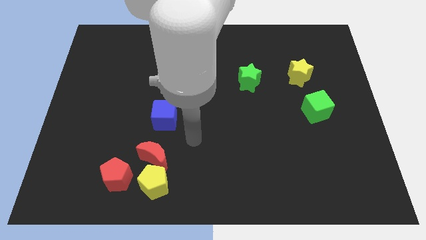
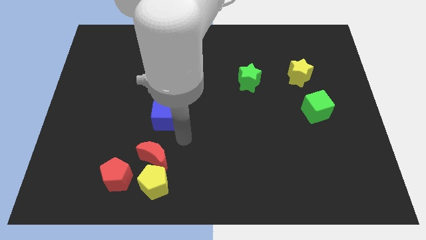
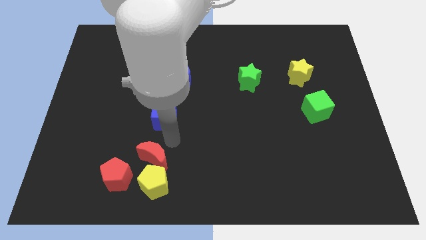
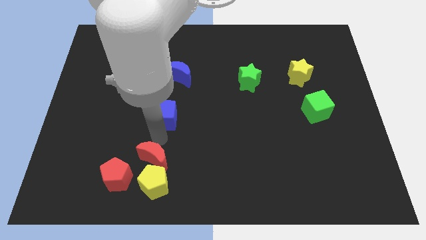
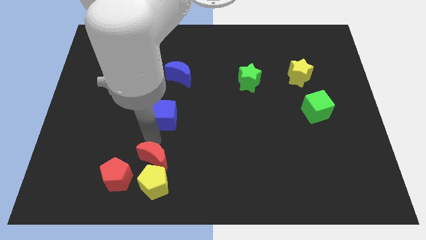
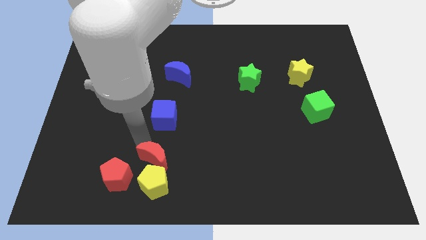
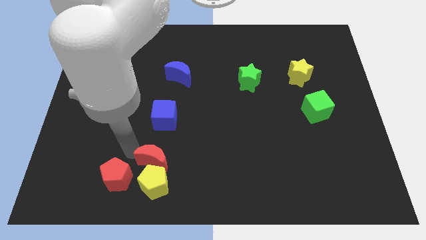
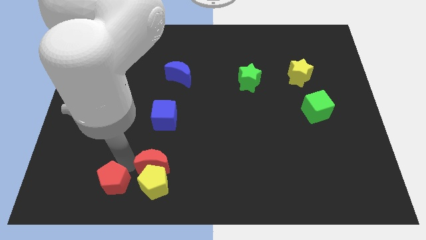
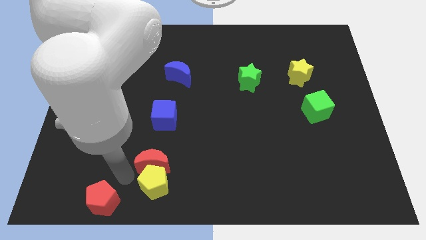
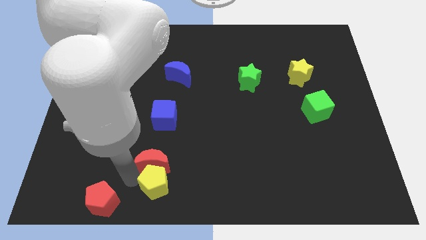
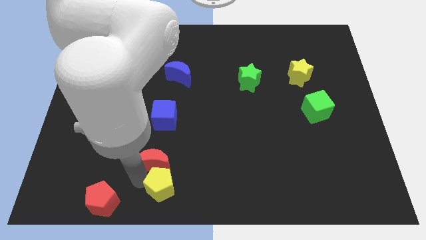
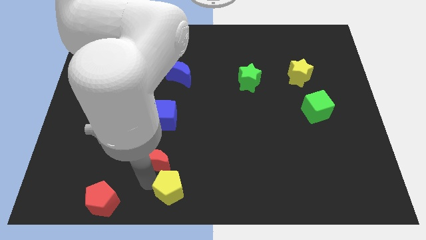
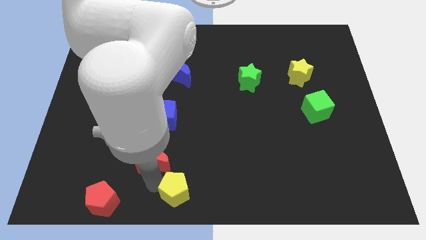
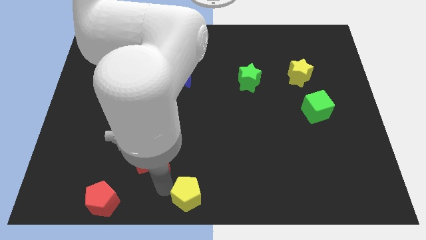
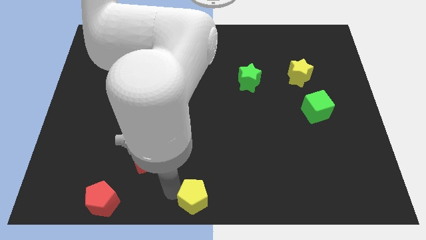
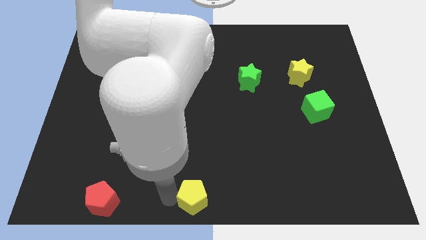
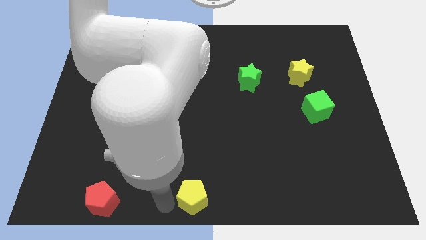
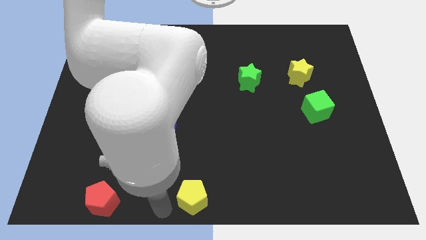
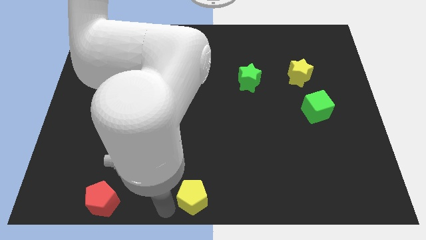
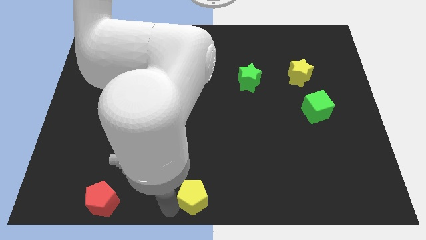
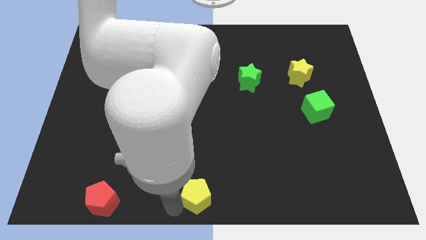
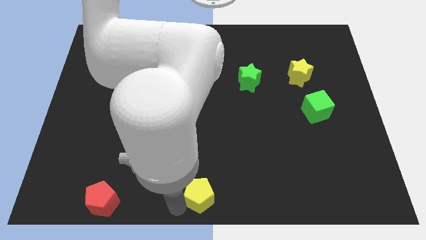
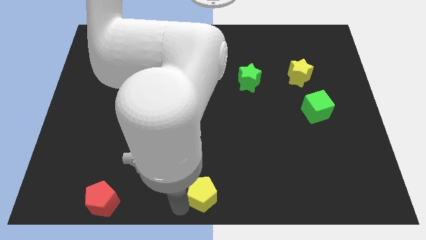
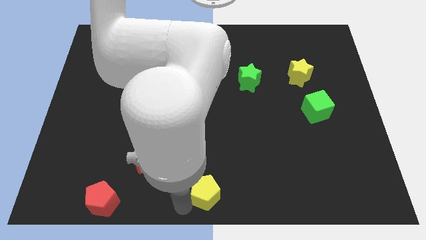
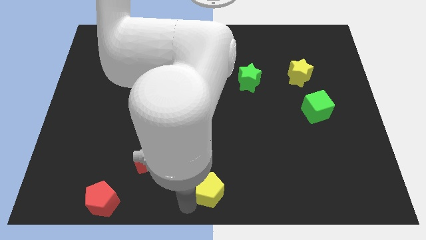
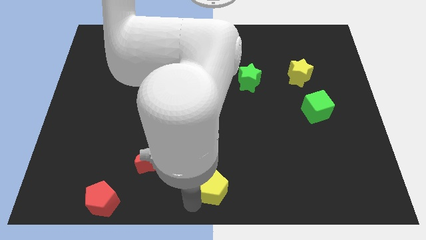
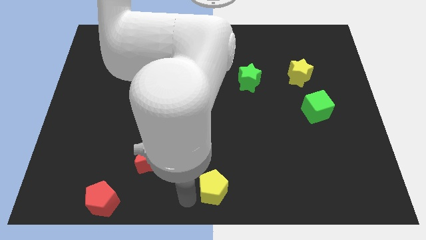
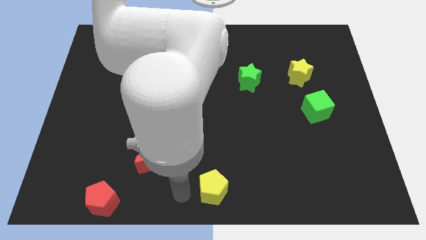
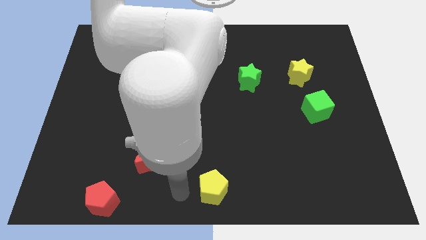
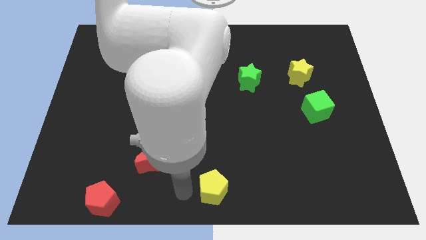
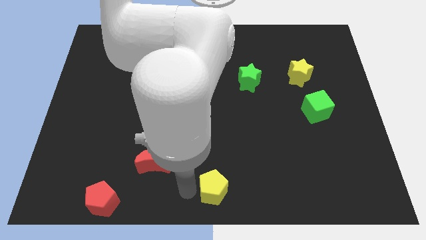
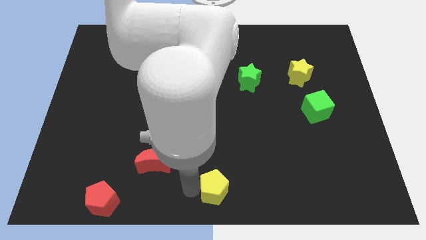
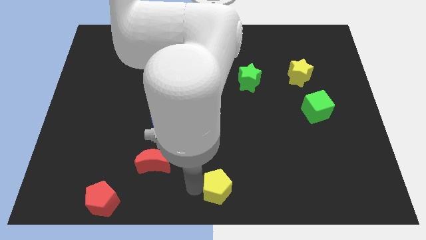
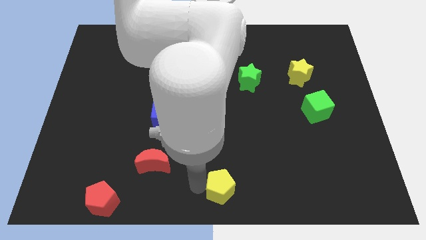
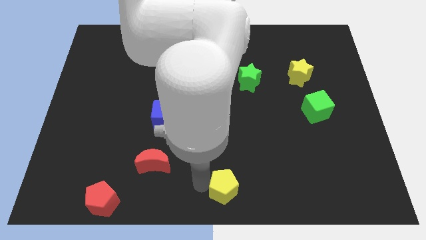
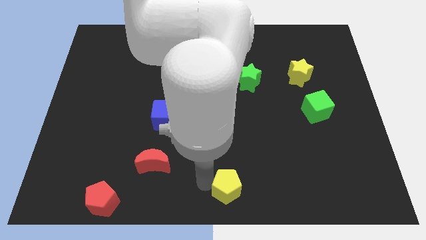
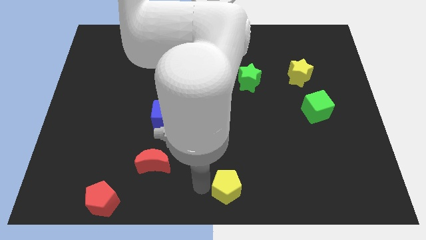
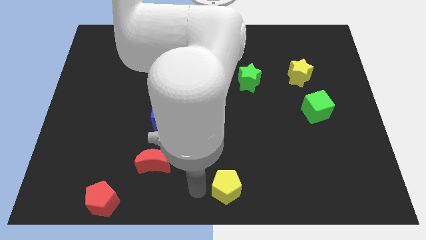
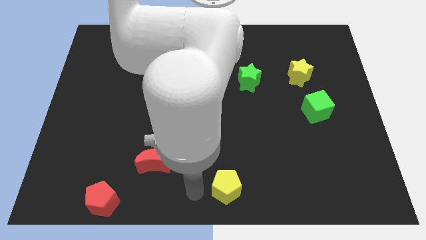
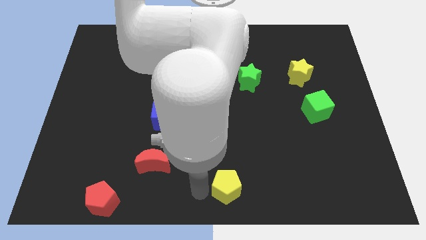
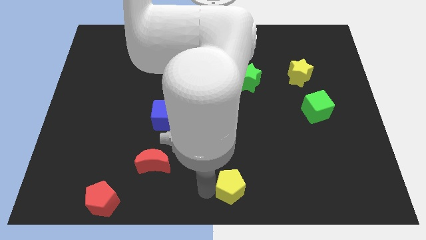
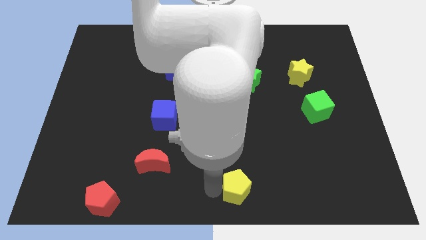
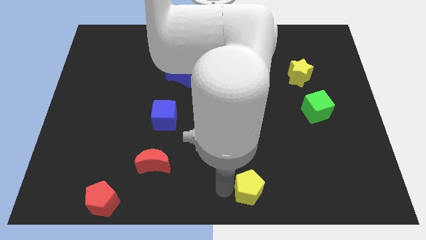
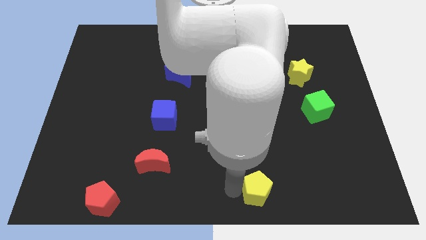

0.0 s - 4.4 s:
move the yellow pentagon to the right

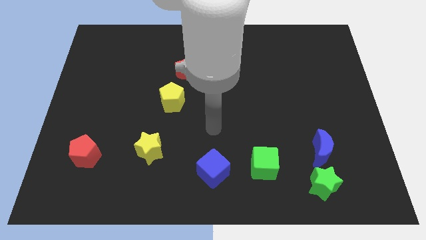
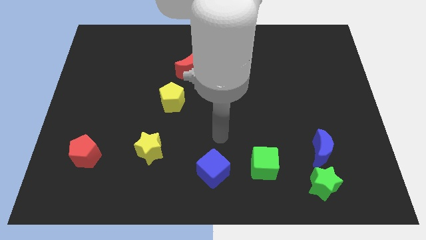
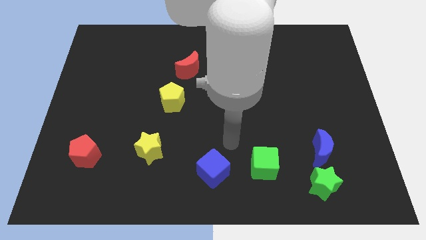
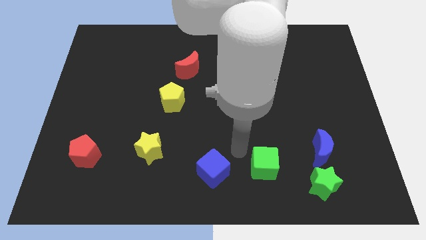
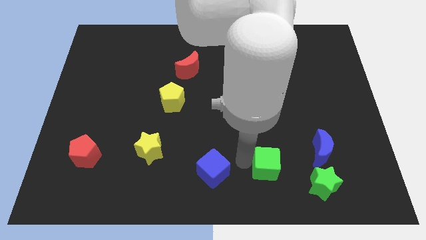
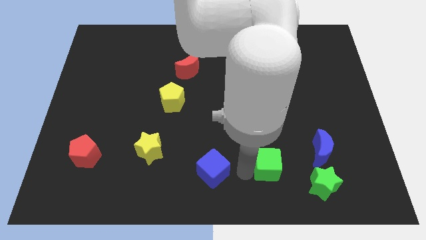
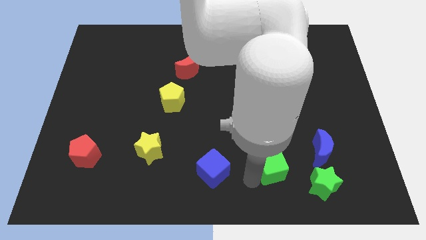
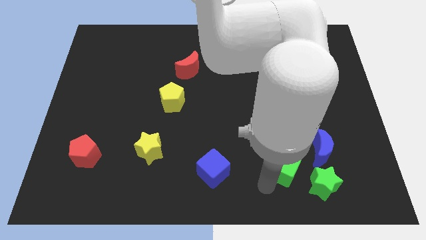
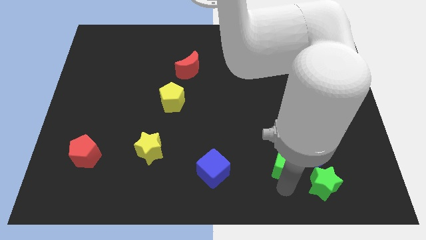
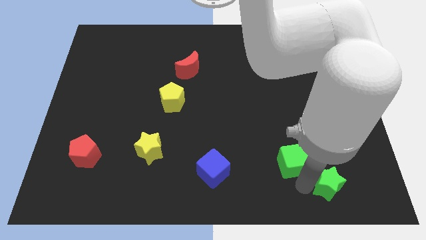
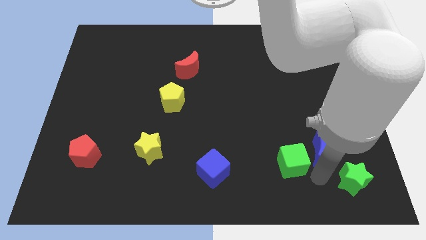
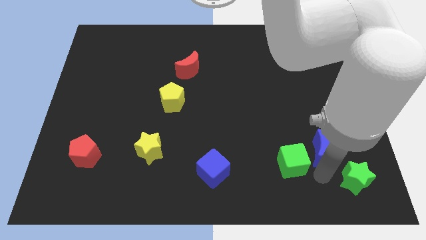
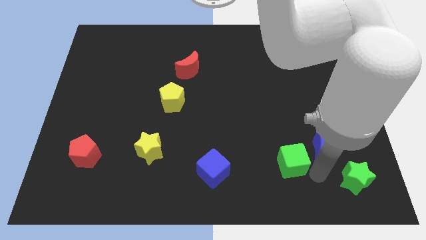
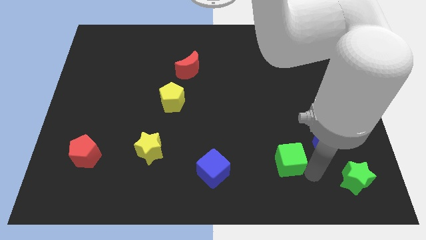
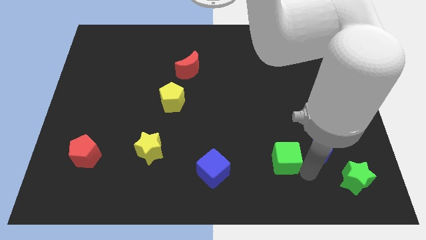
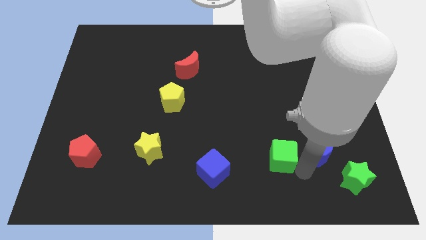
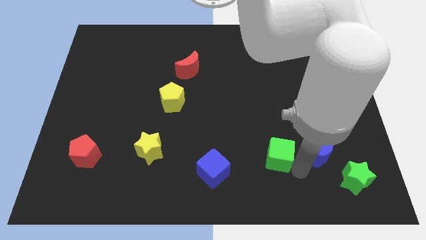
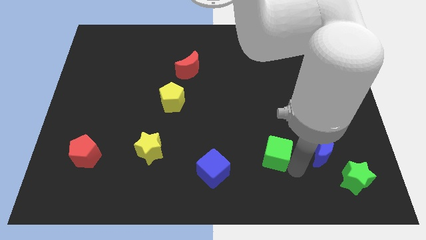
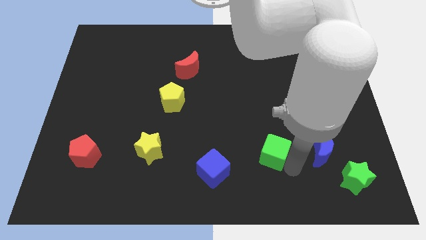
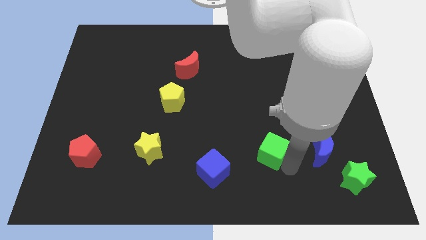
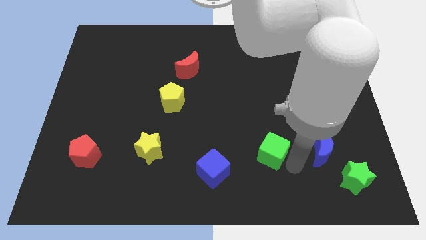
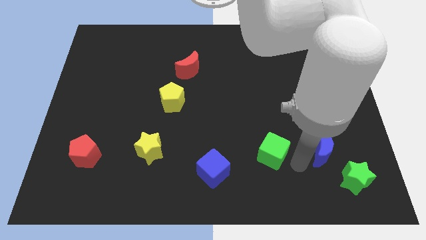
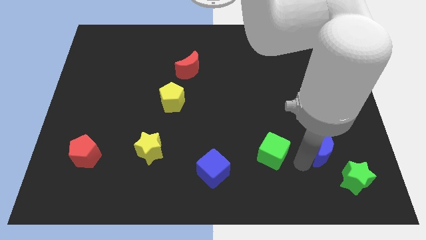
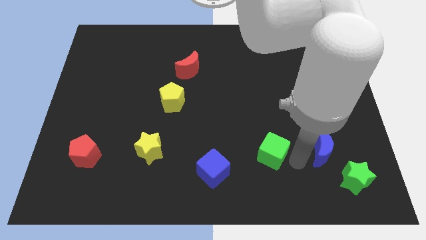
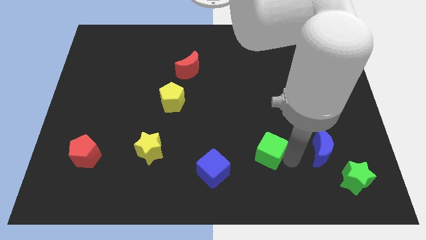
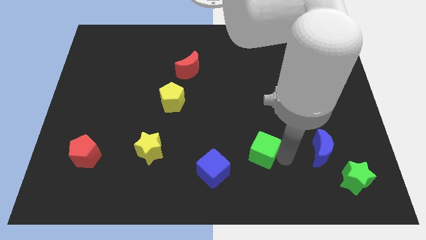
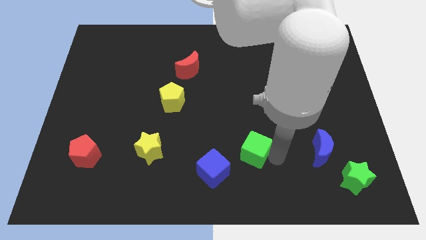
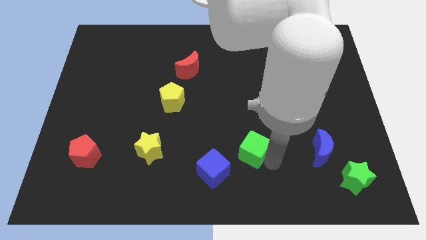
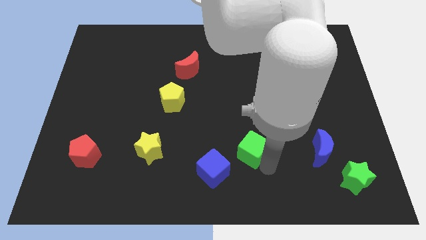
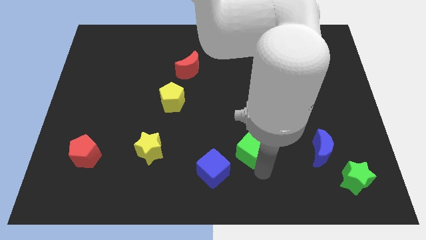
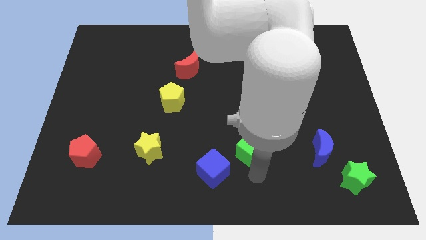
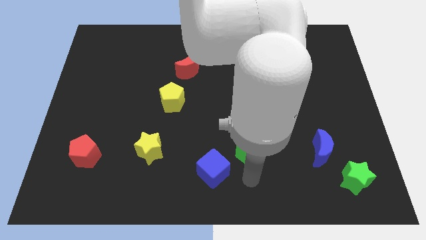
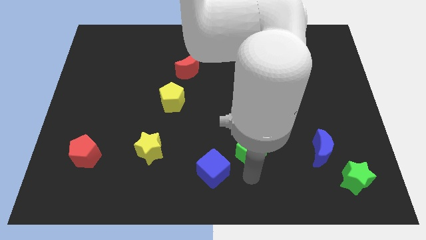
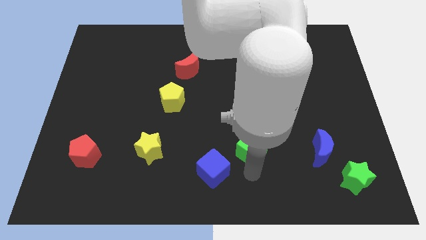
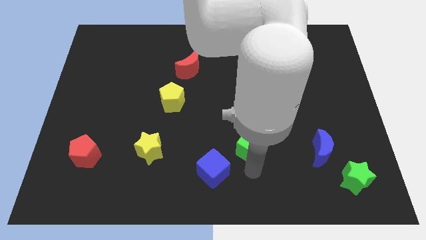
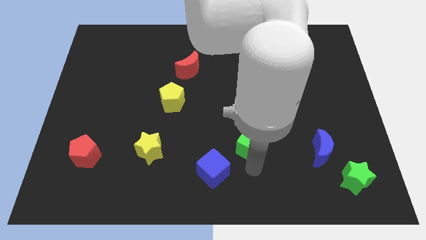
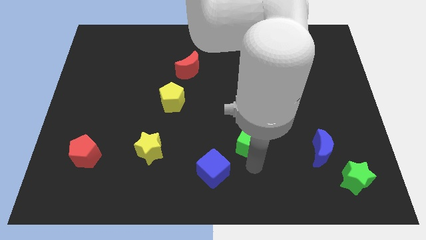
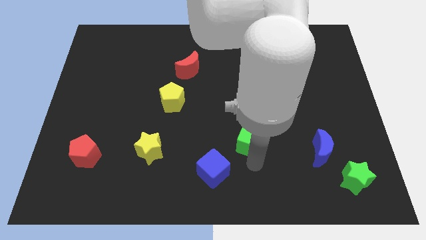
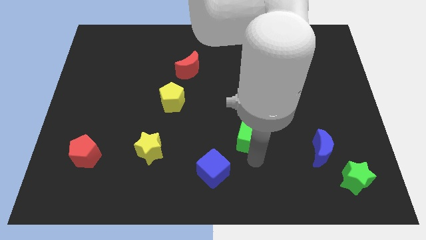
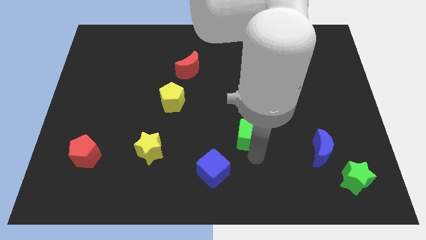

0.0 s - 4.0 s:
move the green cube upwards somewhat
